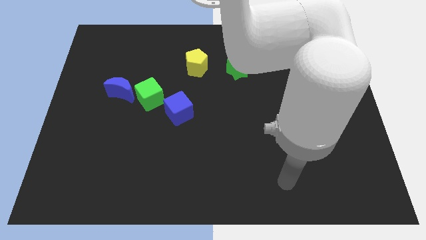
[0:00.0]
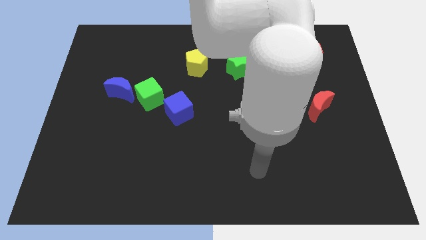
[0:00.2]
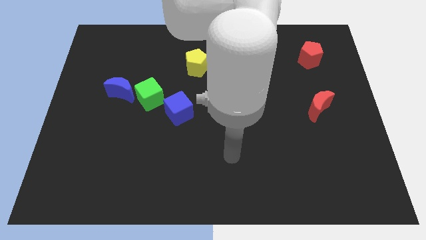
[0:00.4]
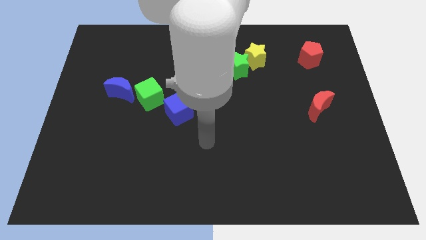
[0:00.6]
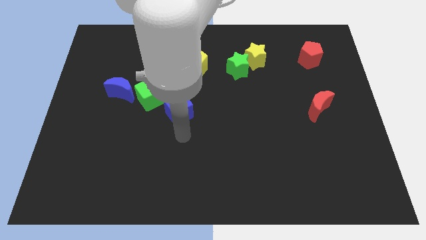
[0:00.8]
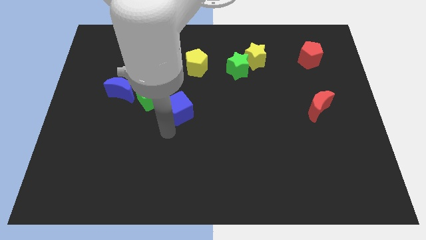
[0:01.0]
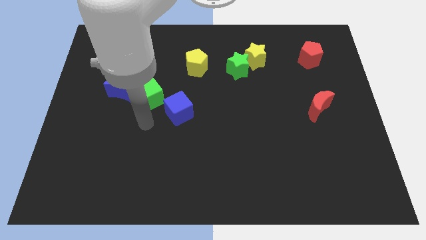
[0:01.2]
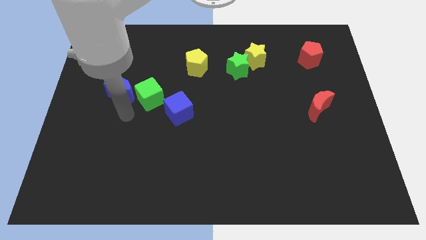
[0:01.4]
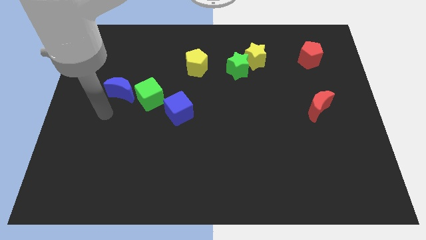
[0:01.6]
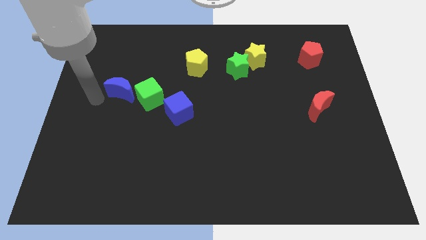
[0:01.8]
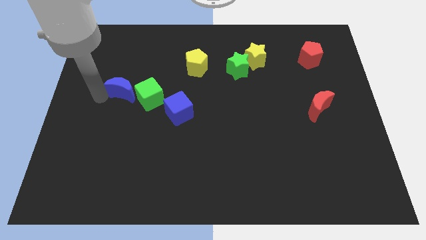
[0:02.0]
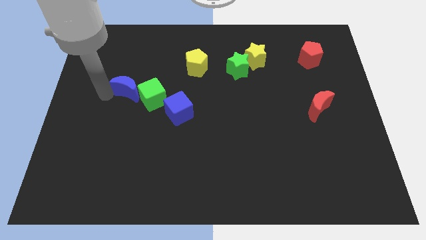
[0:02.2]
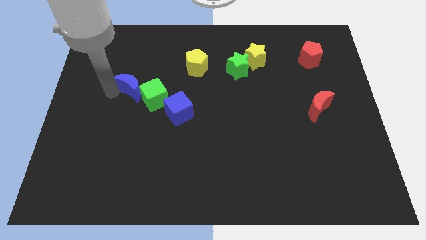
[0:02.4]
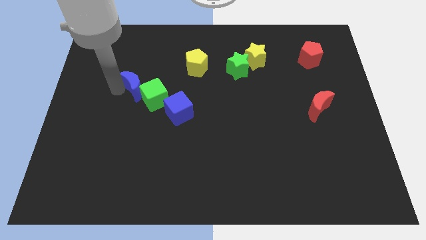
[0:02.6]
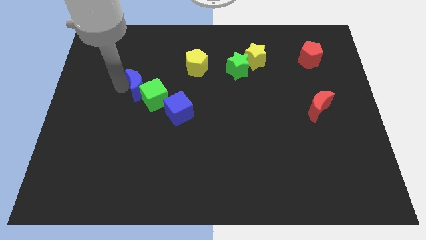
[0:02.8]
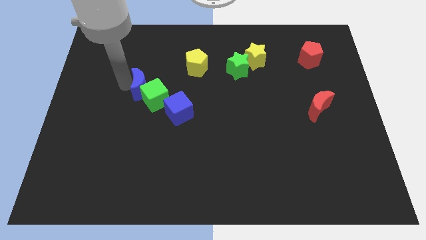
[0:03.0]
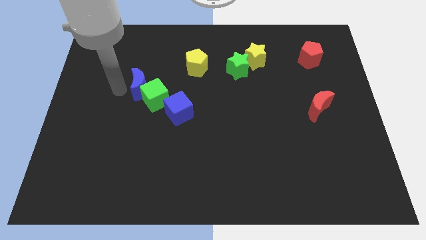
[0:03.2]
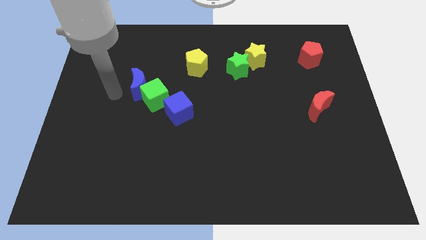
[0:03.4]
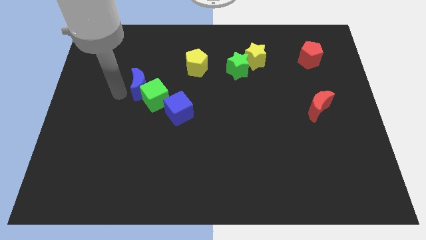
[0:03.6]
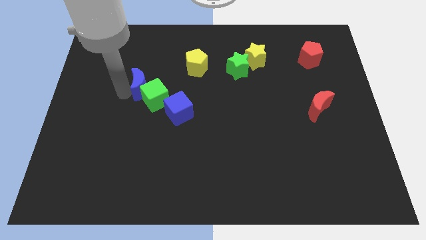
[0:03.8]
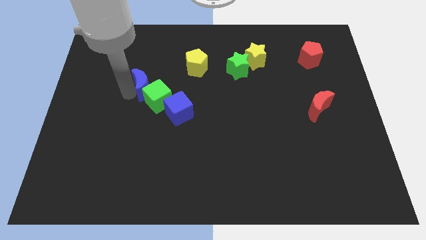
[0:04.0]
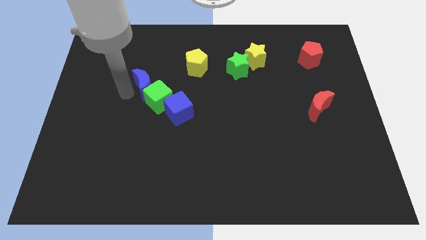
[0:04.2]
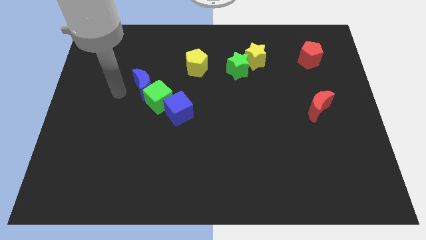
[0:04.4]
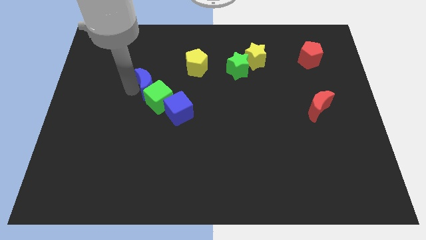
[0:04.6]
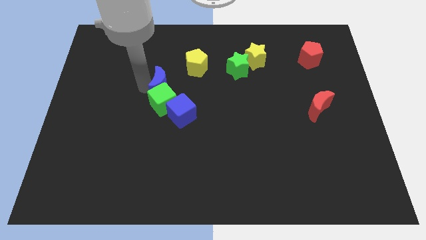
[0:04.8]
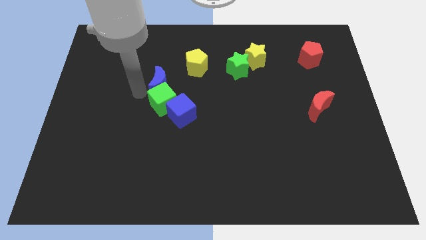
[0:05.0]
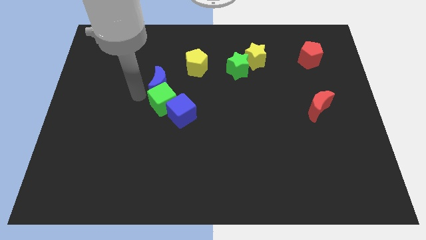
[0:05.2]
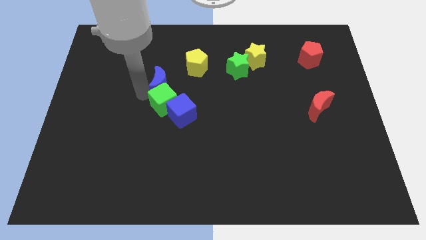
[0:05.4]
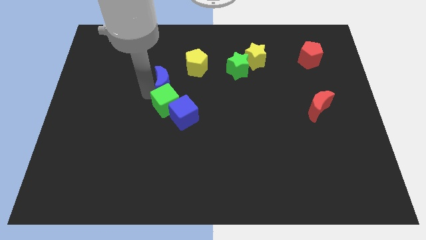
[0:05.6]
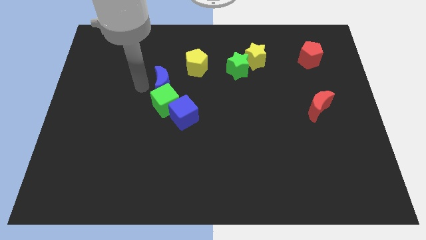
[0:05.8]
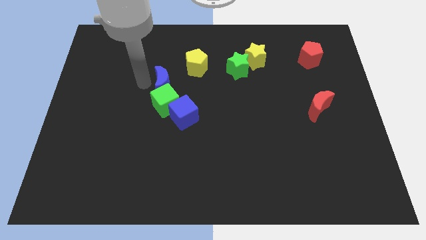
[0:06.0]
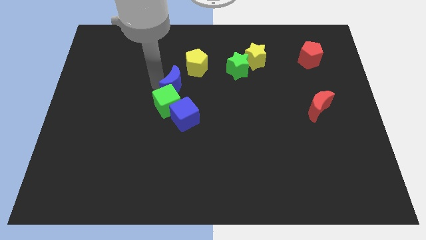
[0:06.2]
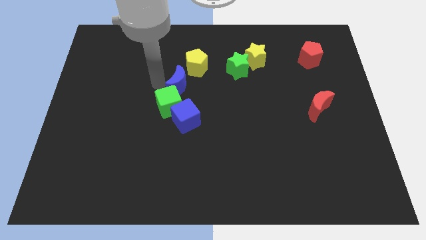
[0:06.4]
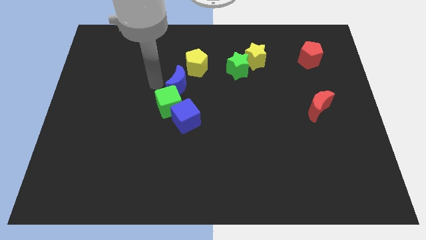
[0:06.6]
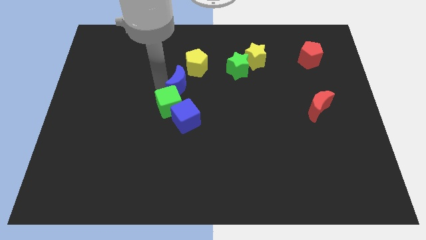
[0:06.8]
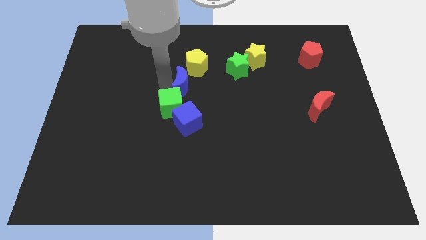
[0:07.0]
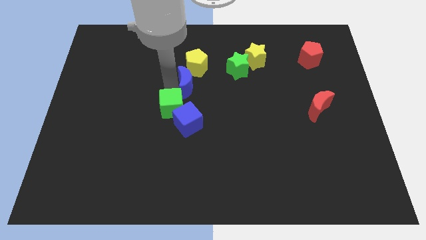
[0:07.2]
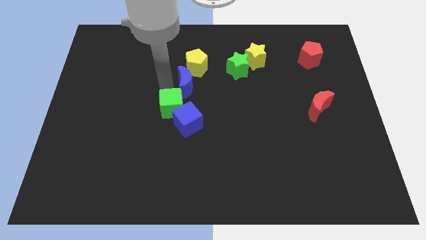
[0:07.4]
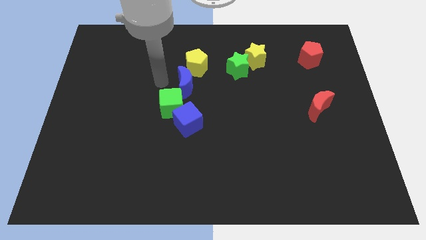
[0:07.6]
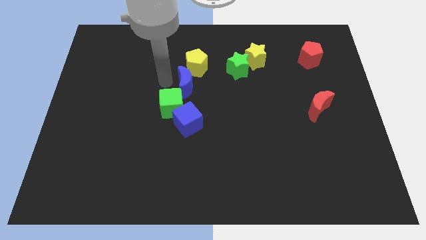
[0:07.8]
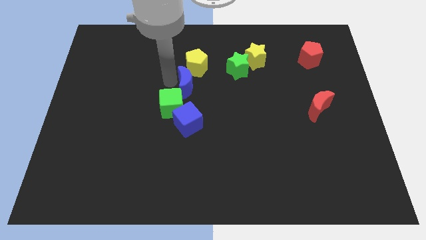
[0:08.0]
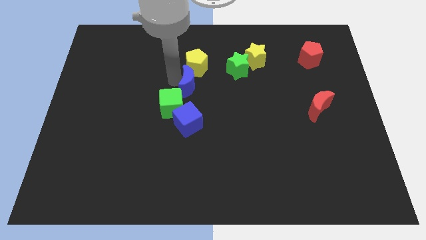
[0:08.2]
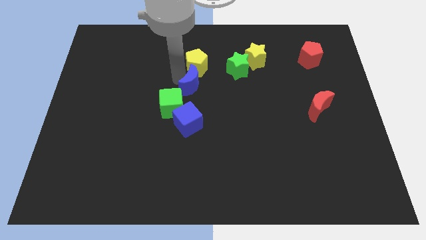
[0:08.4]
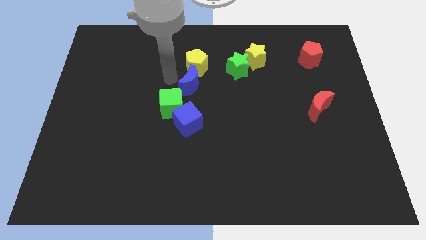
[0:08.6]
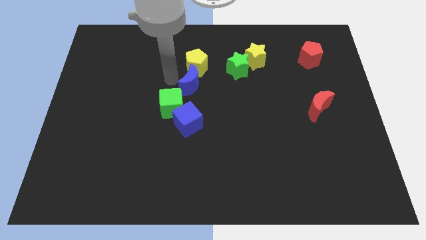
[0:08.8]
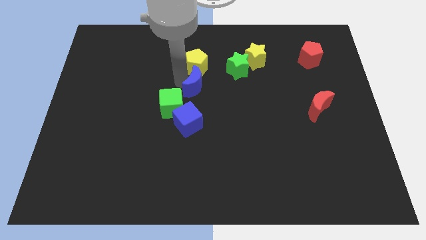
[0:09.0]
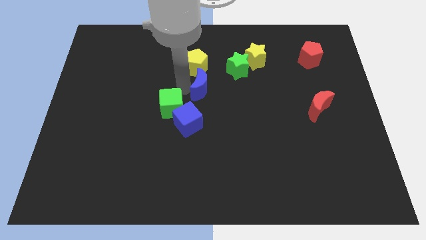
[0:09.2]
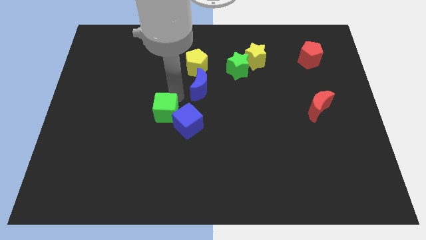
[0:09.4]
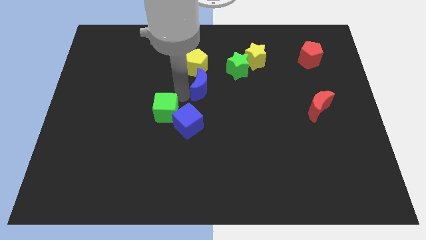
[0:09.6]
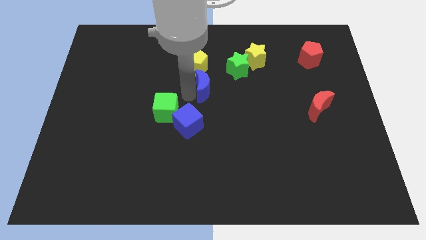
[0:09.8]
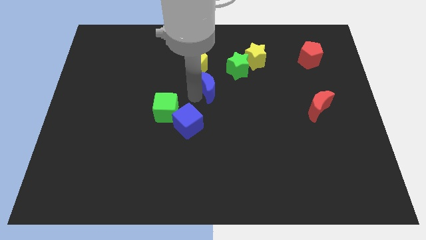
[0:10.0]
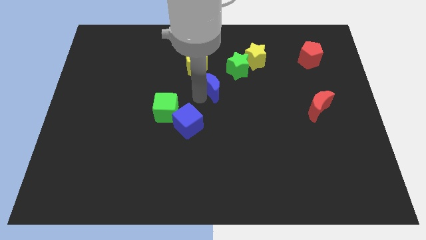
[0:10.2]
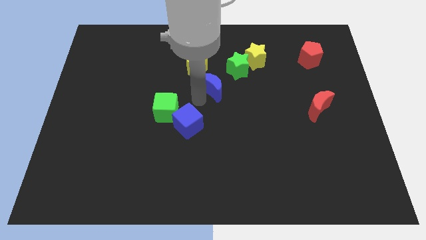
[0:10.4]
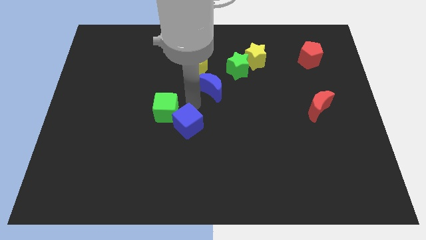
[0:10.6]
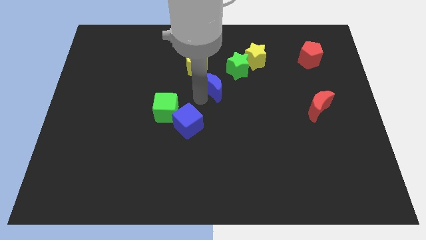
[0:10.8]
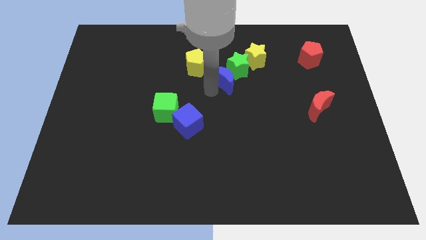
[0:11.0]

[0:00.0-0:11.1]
slide the blue moon close to the green star

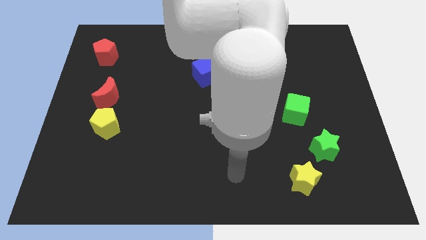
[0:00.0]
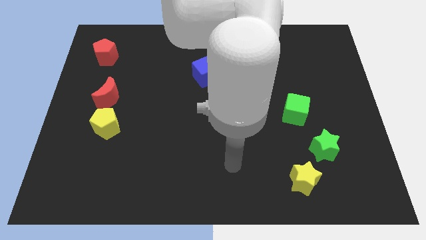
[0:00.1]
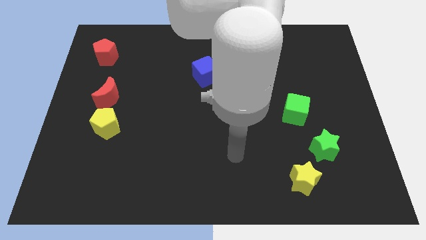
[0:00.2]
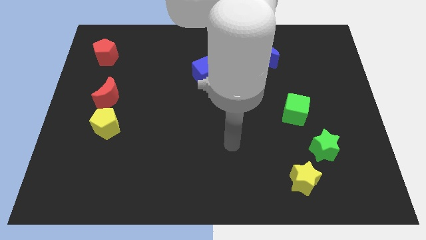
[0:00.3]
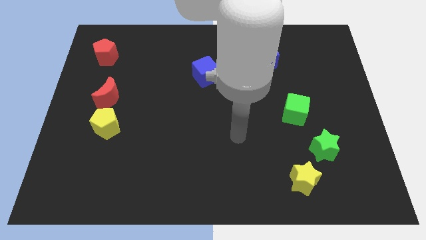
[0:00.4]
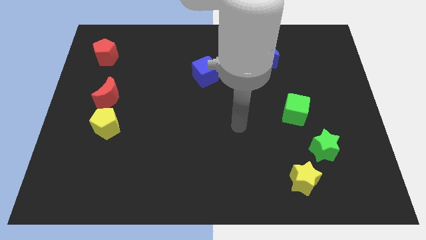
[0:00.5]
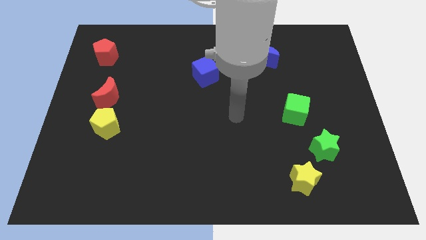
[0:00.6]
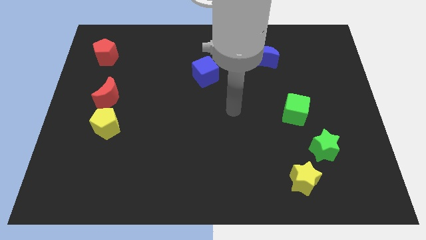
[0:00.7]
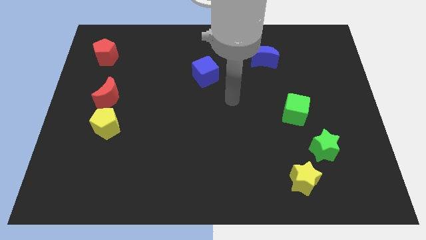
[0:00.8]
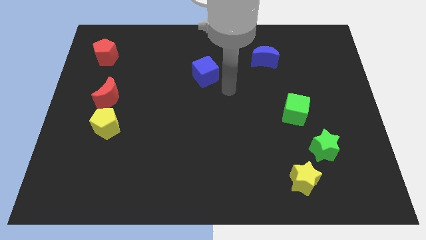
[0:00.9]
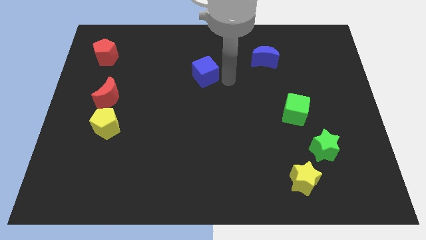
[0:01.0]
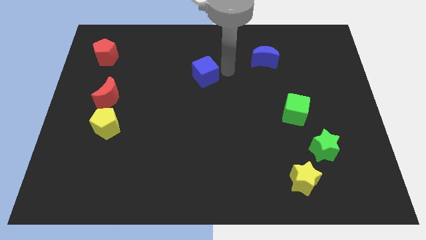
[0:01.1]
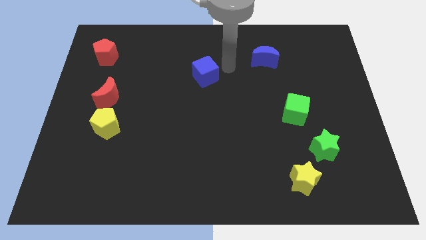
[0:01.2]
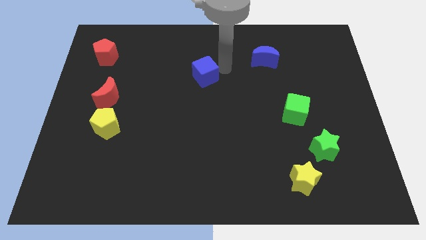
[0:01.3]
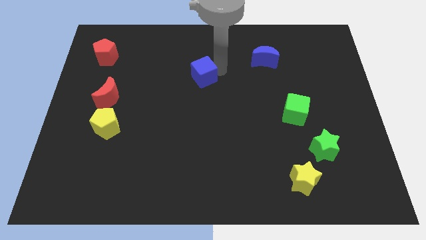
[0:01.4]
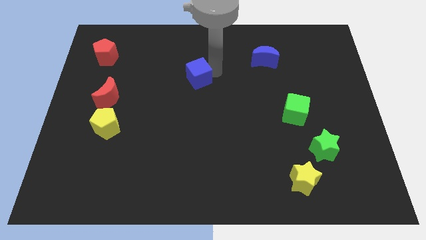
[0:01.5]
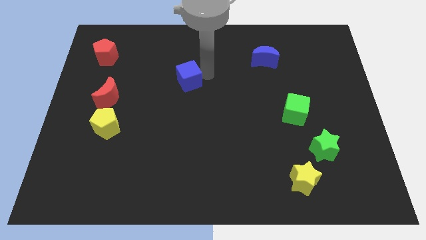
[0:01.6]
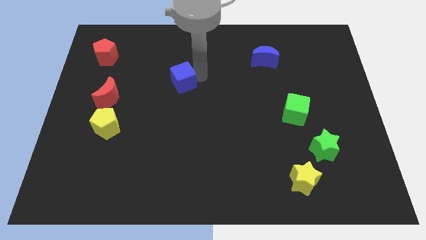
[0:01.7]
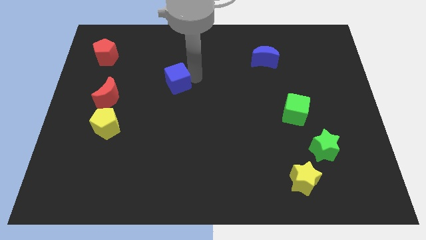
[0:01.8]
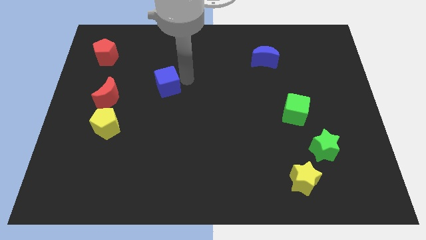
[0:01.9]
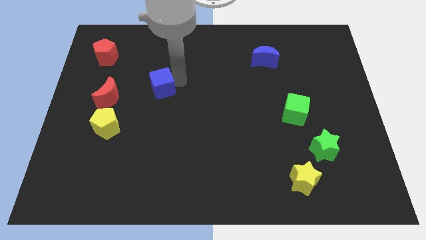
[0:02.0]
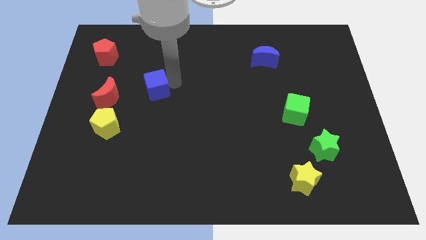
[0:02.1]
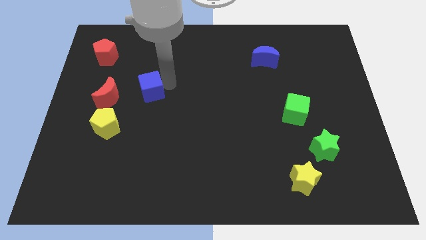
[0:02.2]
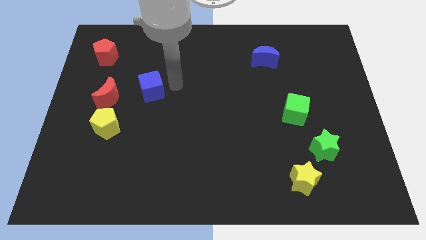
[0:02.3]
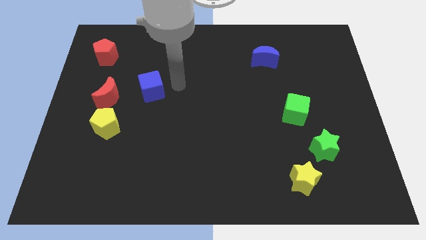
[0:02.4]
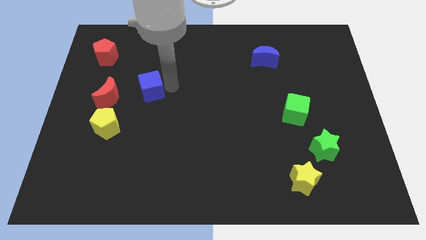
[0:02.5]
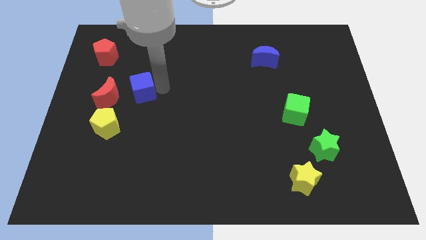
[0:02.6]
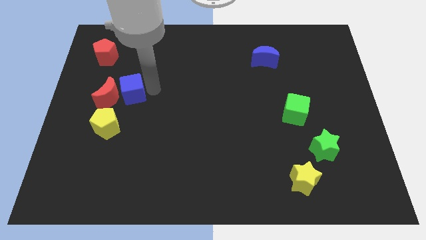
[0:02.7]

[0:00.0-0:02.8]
push the blue cube next to the red moon
